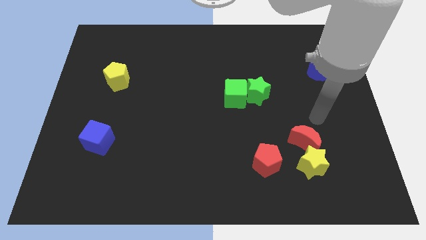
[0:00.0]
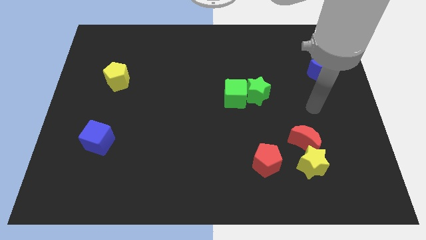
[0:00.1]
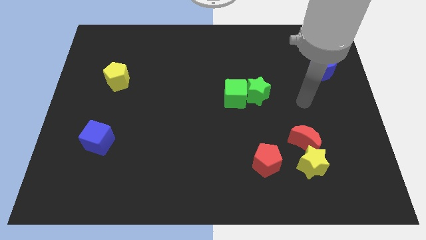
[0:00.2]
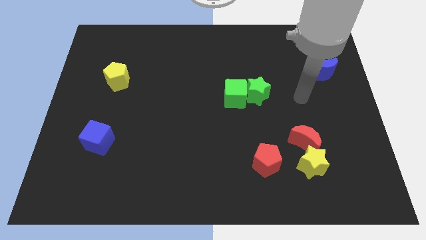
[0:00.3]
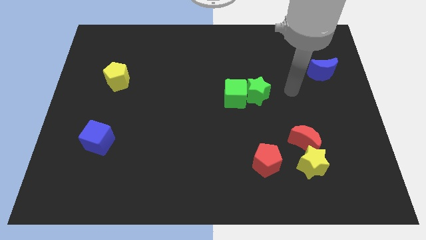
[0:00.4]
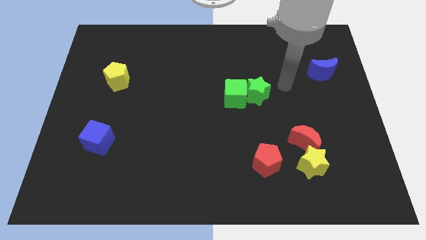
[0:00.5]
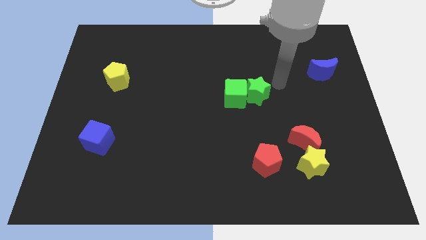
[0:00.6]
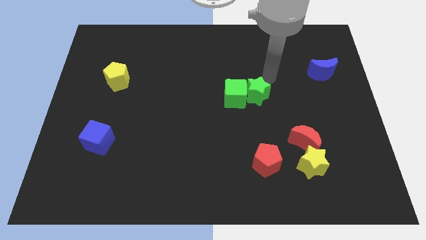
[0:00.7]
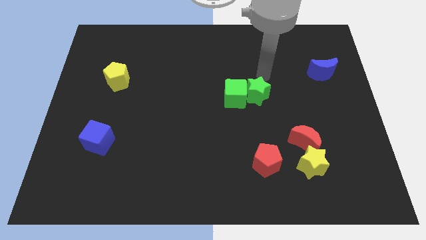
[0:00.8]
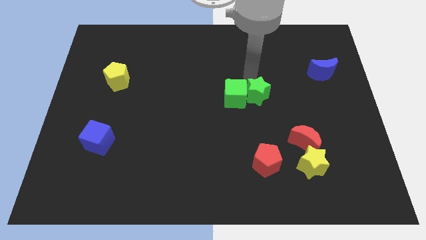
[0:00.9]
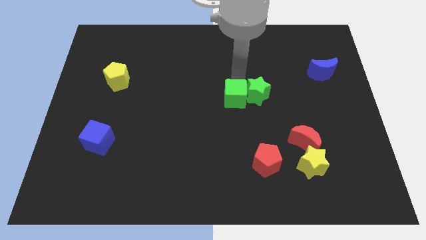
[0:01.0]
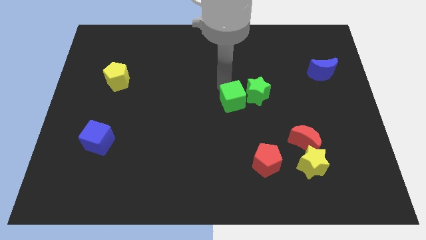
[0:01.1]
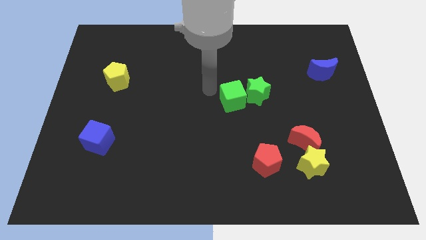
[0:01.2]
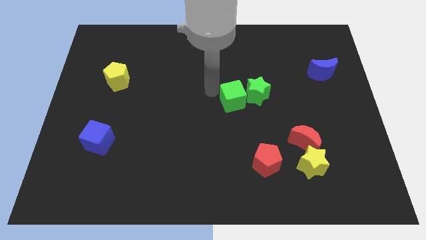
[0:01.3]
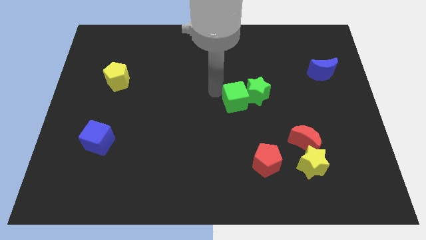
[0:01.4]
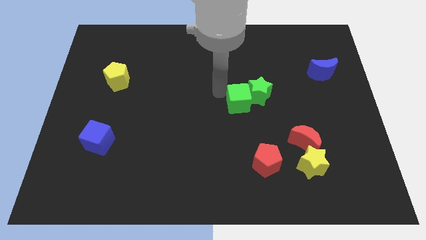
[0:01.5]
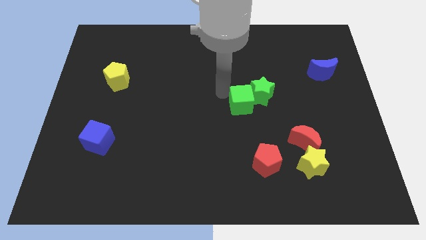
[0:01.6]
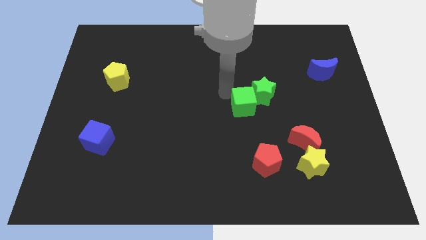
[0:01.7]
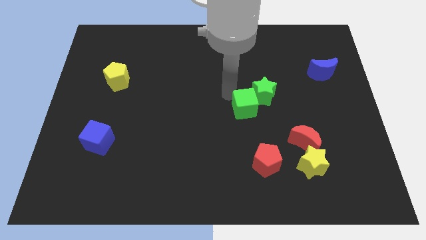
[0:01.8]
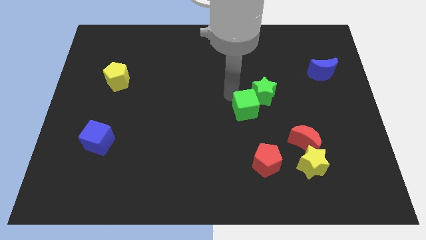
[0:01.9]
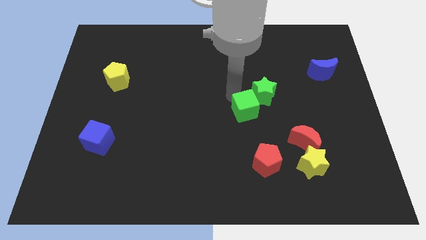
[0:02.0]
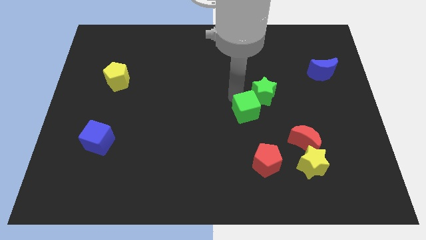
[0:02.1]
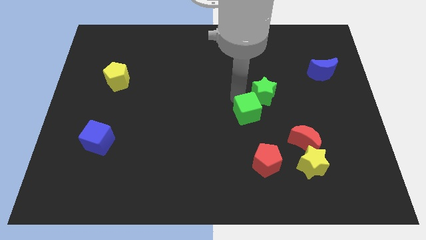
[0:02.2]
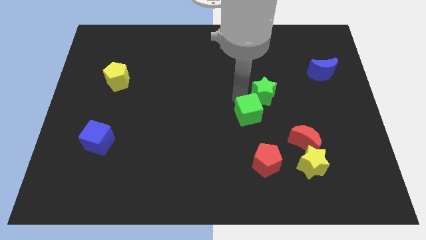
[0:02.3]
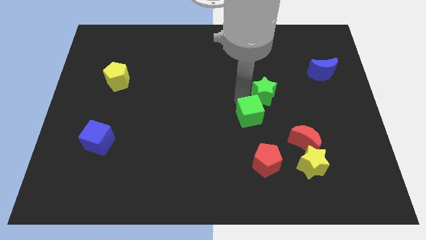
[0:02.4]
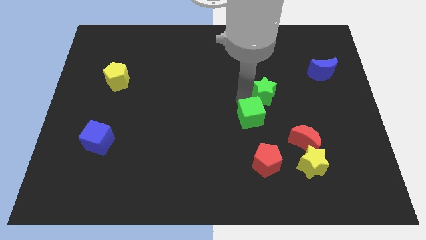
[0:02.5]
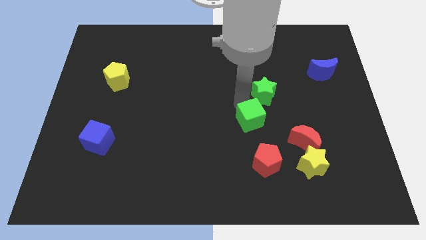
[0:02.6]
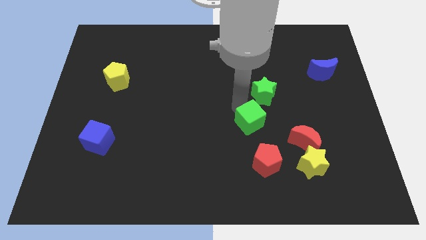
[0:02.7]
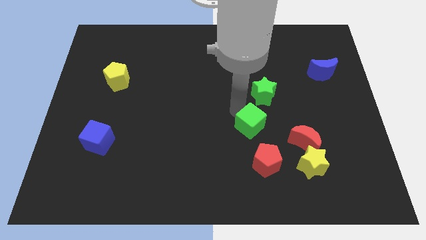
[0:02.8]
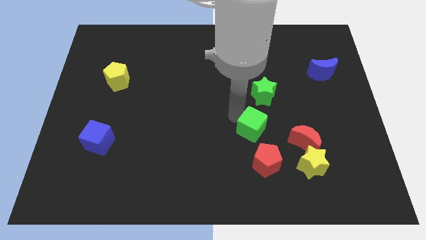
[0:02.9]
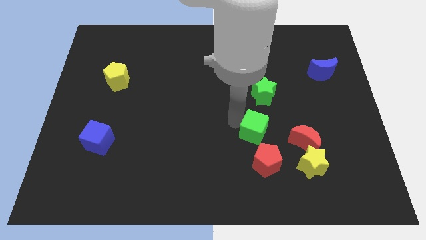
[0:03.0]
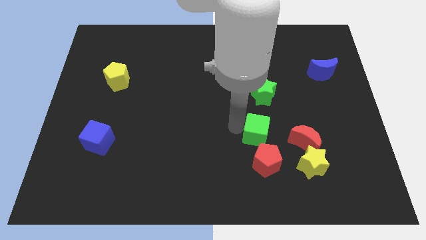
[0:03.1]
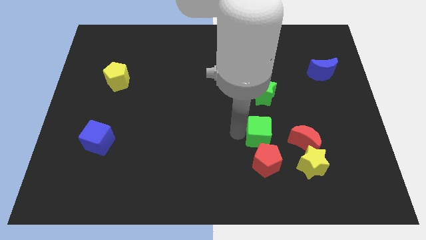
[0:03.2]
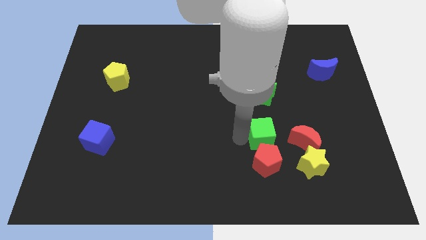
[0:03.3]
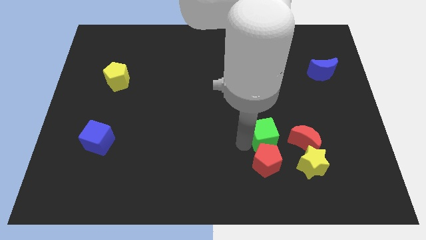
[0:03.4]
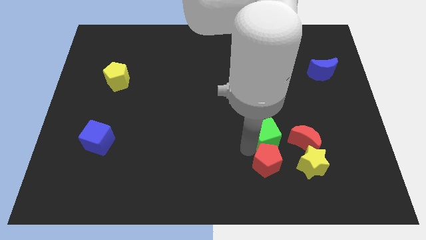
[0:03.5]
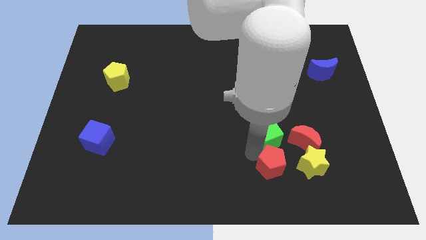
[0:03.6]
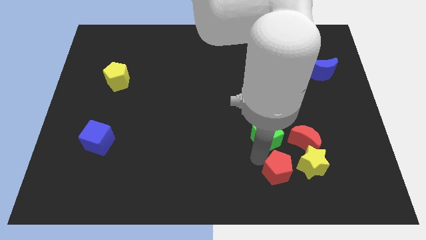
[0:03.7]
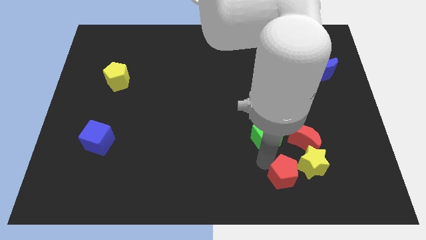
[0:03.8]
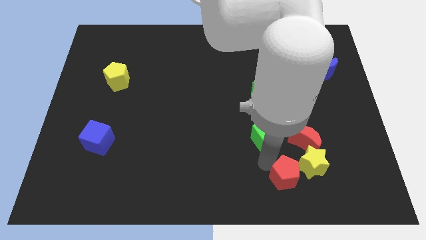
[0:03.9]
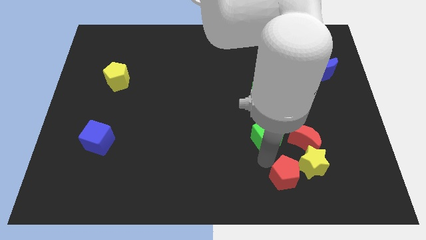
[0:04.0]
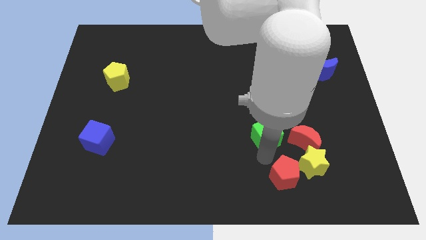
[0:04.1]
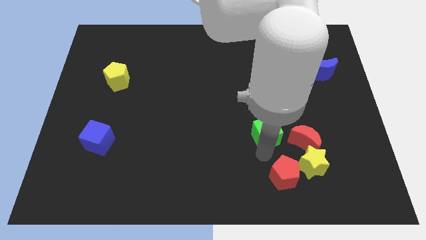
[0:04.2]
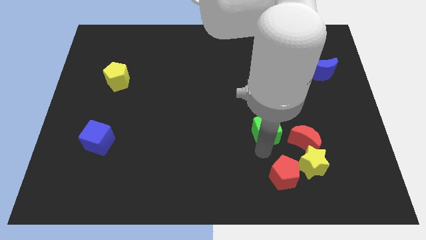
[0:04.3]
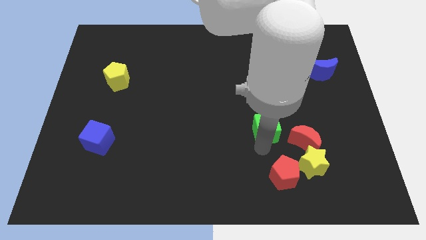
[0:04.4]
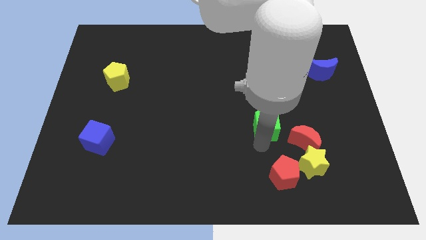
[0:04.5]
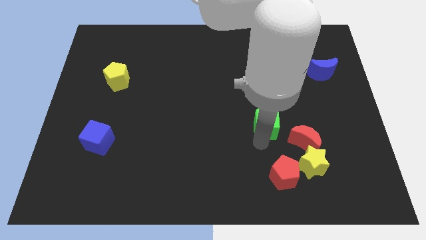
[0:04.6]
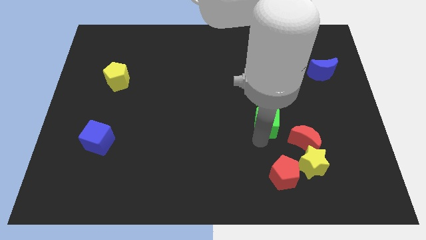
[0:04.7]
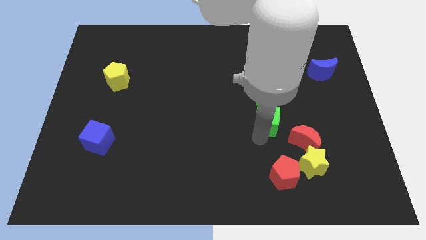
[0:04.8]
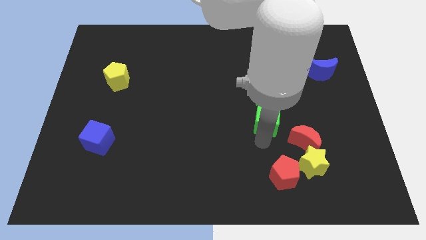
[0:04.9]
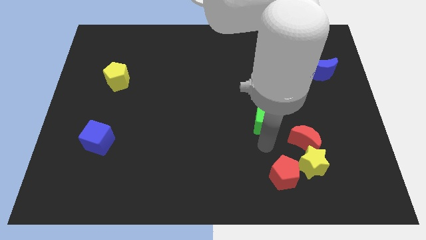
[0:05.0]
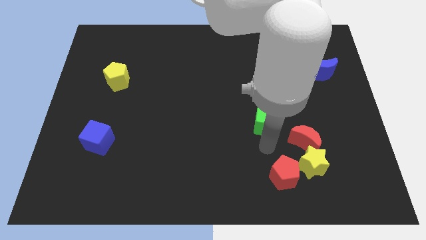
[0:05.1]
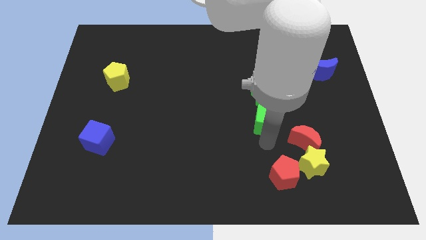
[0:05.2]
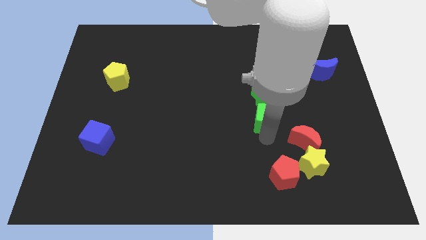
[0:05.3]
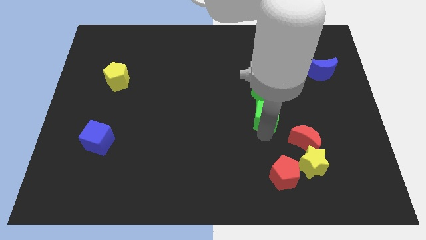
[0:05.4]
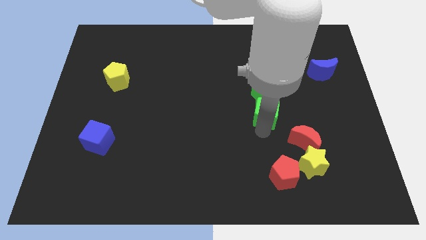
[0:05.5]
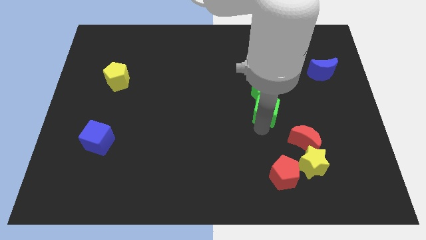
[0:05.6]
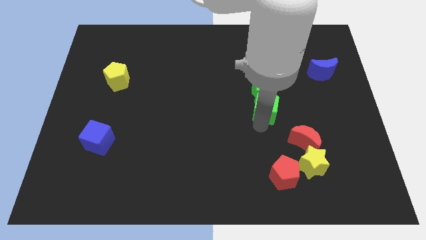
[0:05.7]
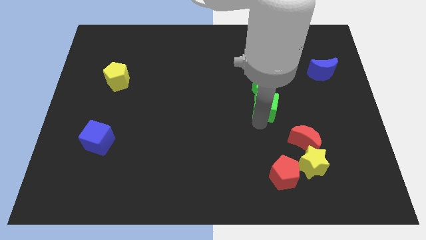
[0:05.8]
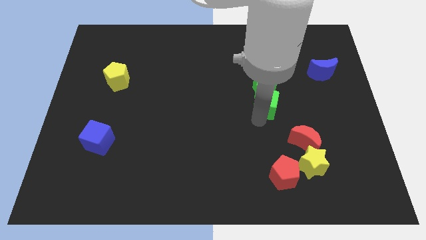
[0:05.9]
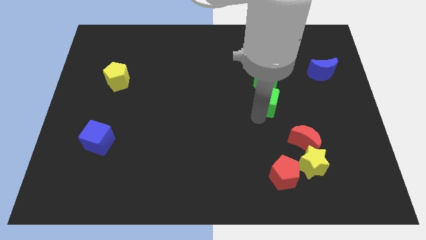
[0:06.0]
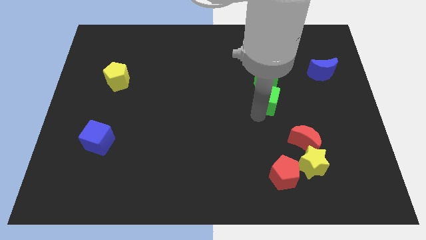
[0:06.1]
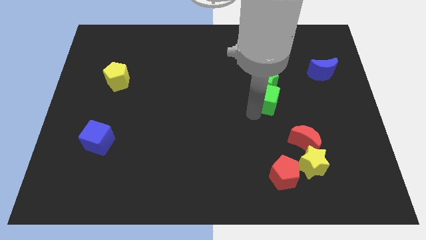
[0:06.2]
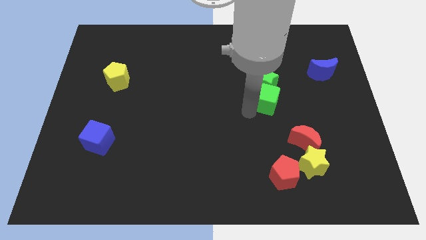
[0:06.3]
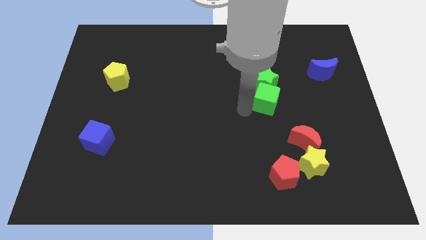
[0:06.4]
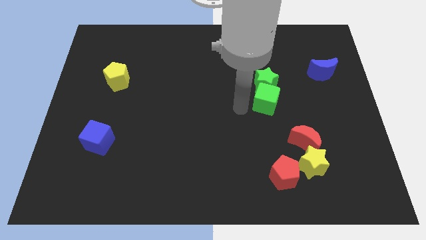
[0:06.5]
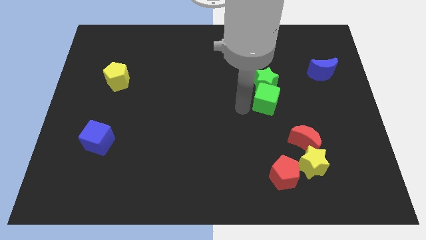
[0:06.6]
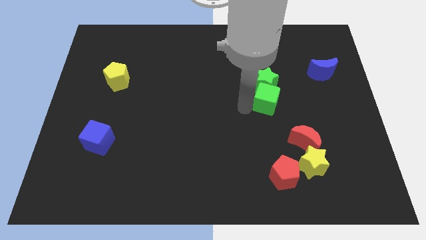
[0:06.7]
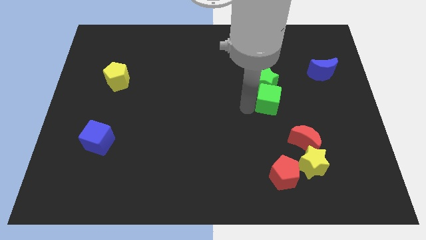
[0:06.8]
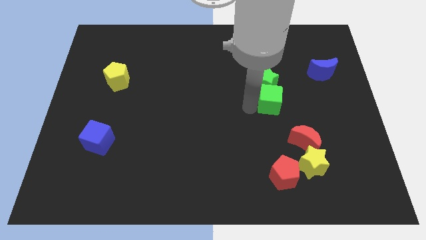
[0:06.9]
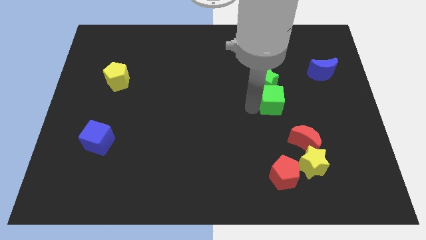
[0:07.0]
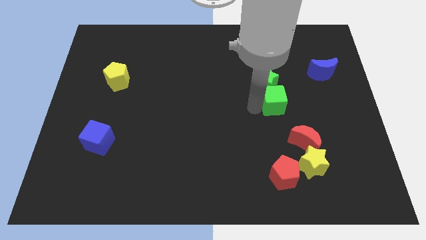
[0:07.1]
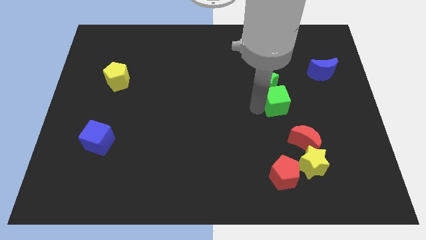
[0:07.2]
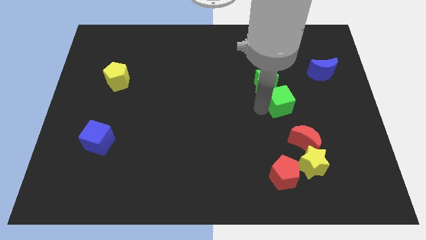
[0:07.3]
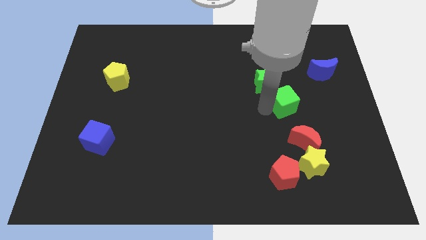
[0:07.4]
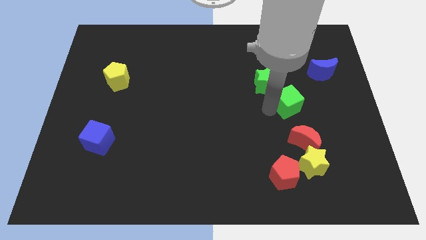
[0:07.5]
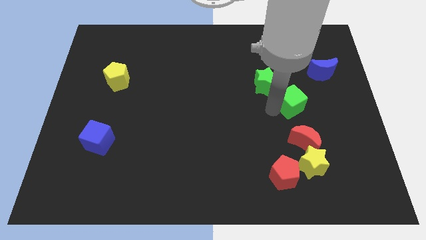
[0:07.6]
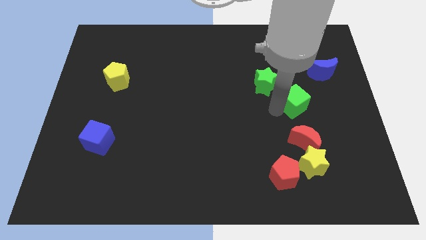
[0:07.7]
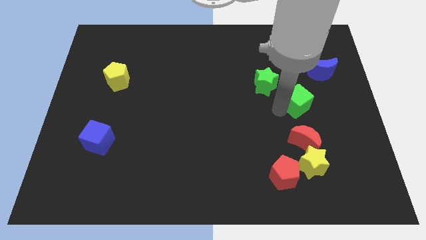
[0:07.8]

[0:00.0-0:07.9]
push the green cube diagonally down and to the left of the blue moon
